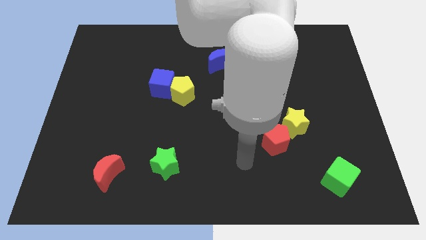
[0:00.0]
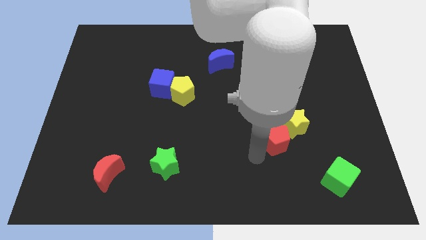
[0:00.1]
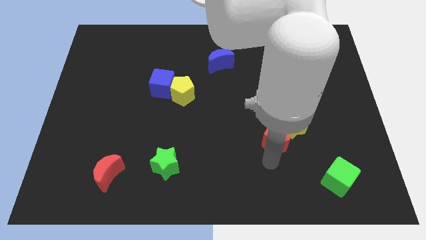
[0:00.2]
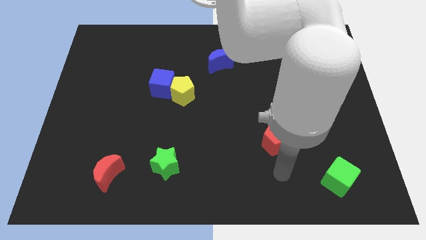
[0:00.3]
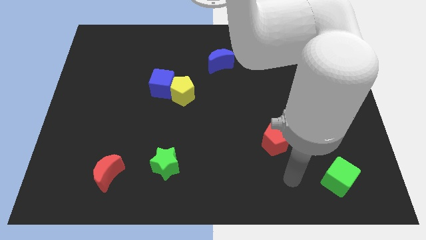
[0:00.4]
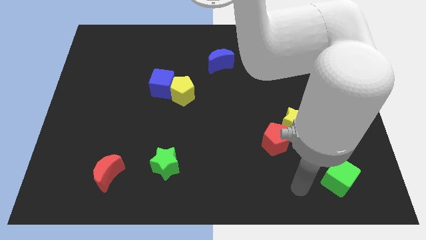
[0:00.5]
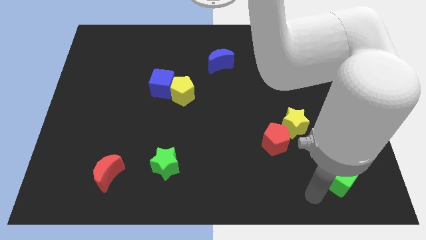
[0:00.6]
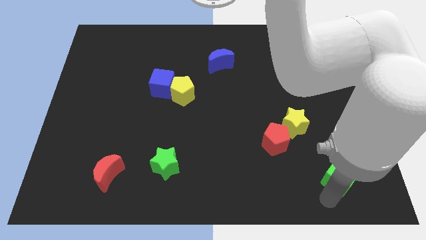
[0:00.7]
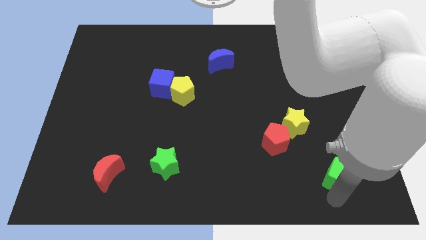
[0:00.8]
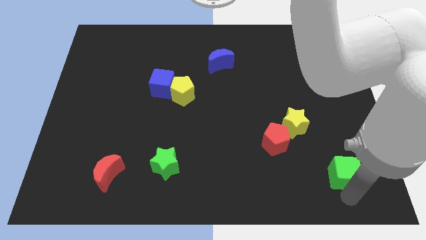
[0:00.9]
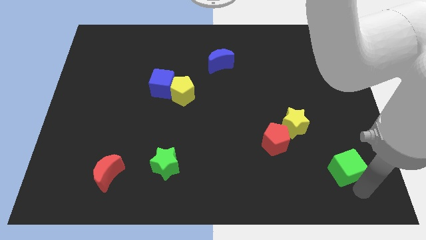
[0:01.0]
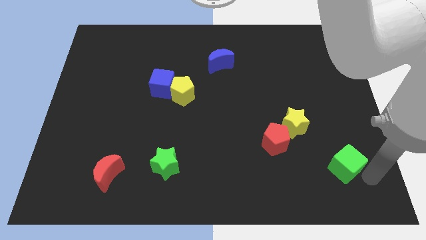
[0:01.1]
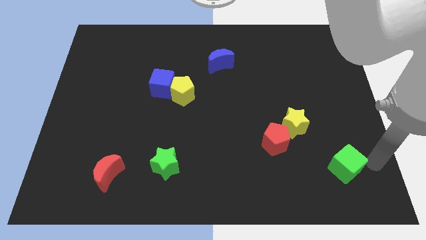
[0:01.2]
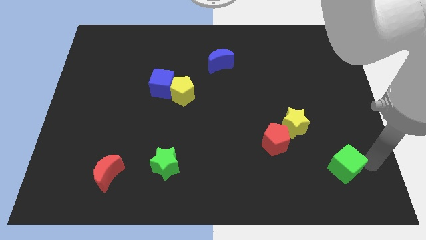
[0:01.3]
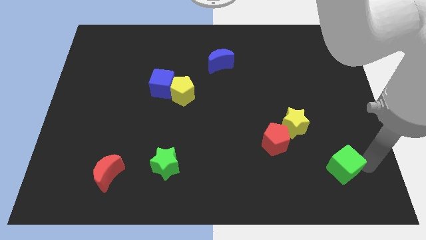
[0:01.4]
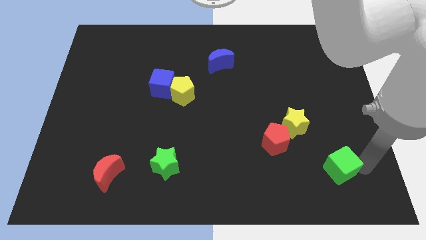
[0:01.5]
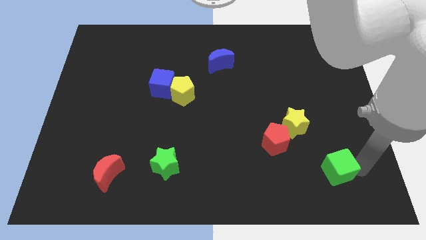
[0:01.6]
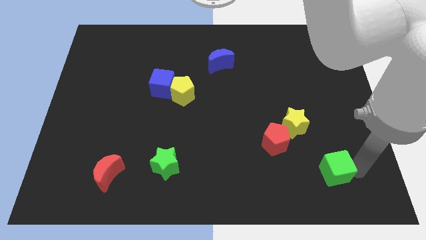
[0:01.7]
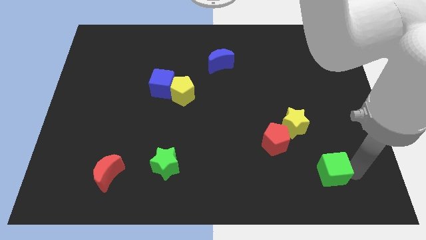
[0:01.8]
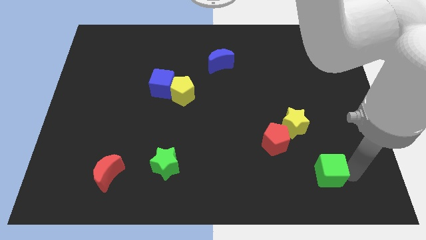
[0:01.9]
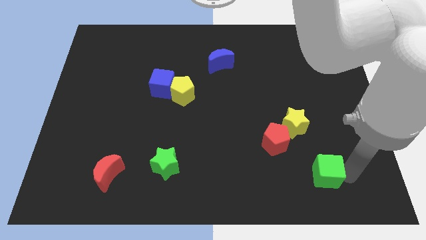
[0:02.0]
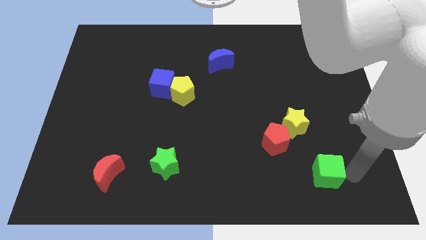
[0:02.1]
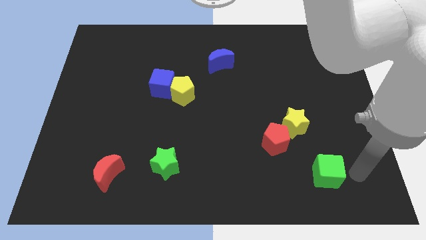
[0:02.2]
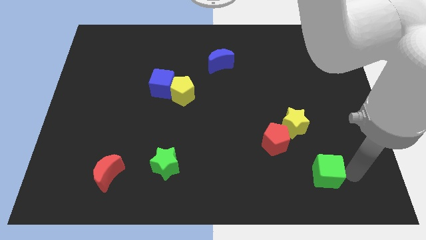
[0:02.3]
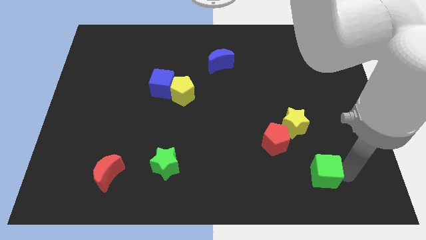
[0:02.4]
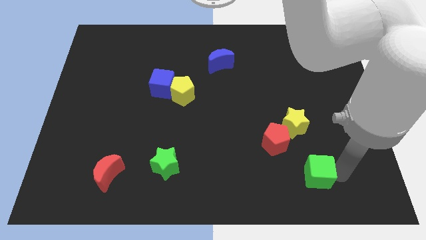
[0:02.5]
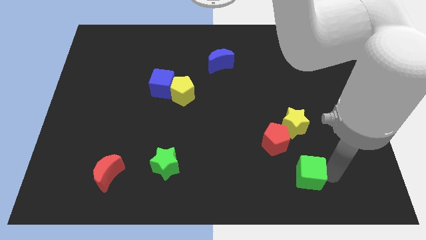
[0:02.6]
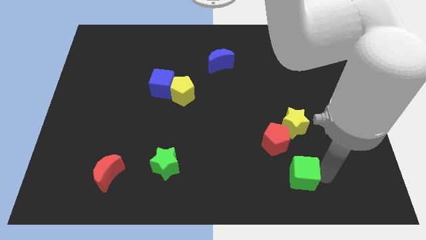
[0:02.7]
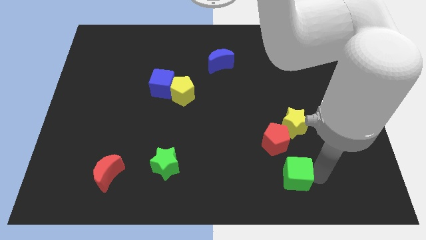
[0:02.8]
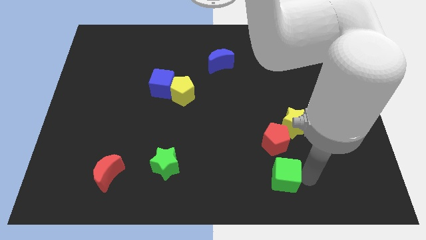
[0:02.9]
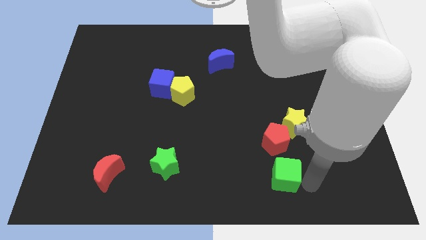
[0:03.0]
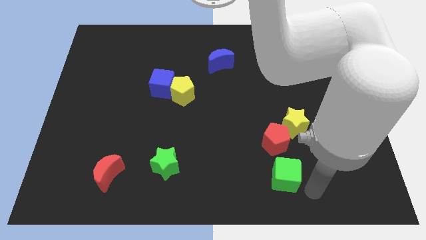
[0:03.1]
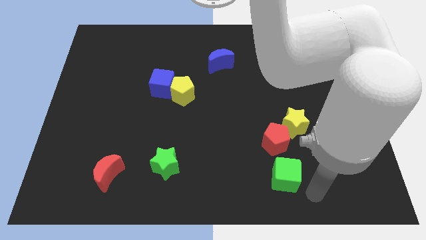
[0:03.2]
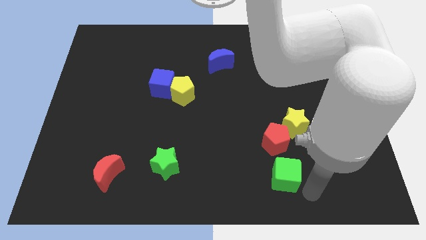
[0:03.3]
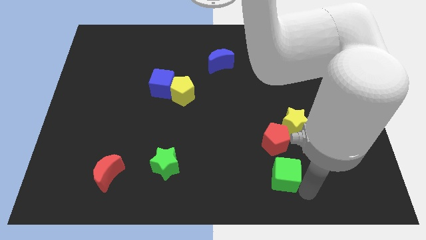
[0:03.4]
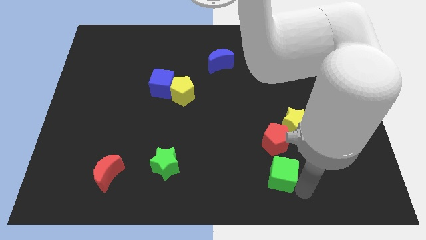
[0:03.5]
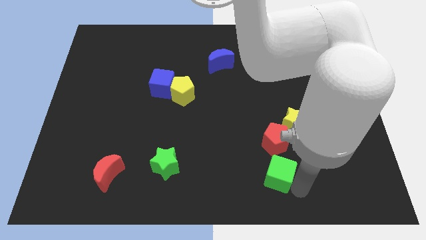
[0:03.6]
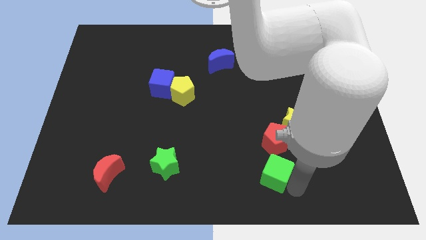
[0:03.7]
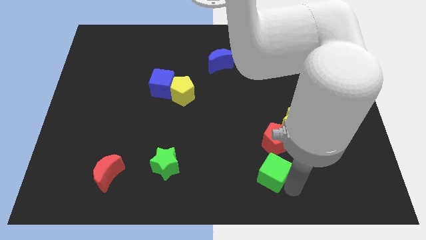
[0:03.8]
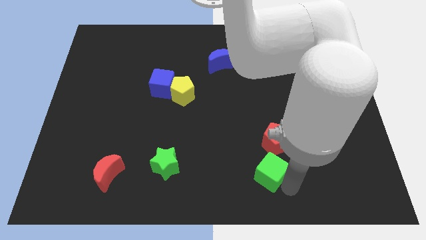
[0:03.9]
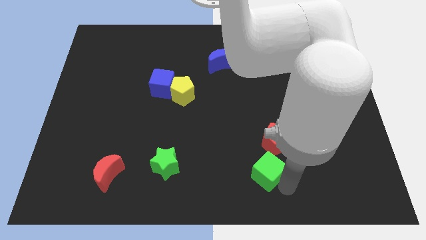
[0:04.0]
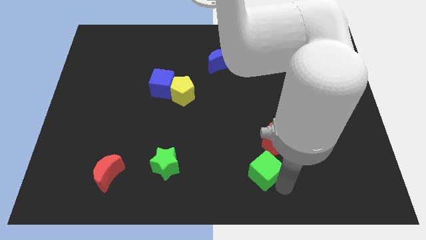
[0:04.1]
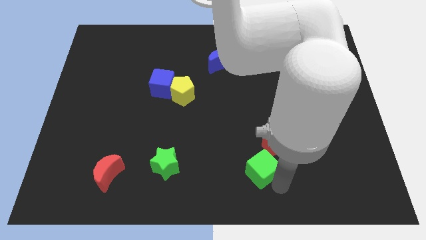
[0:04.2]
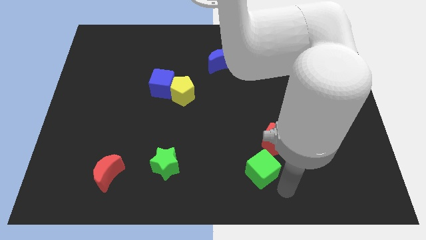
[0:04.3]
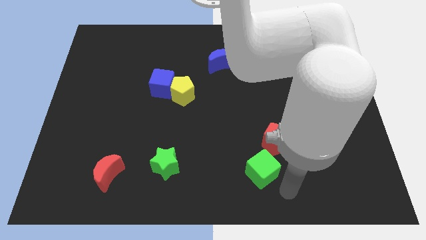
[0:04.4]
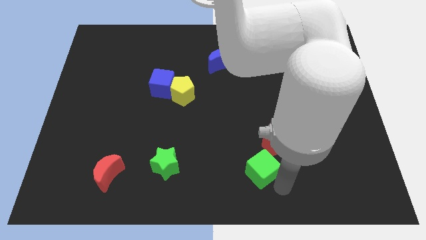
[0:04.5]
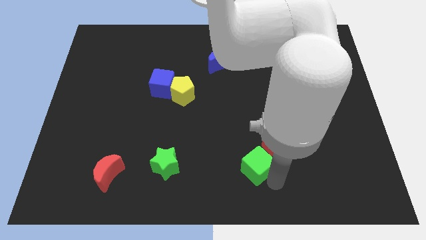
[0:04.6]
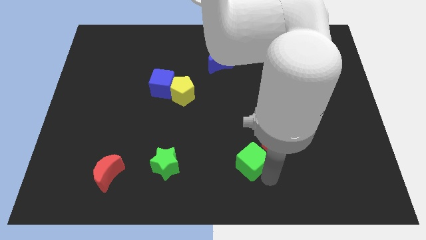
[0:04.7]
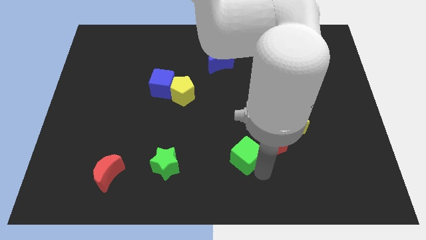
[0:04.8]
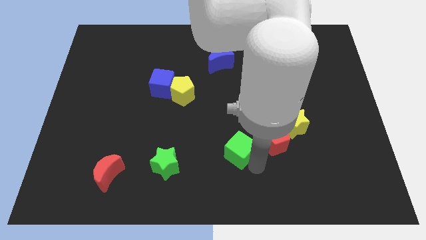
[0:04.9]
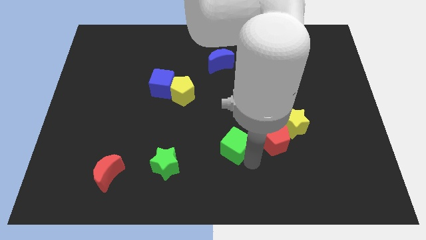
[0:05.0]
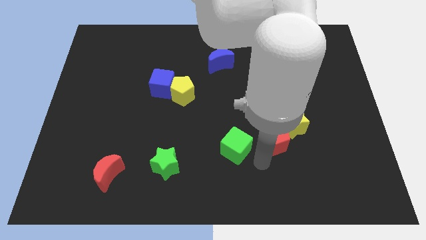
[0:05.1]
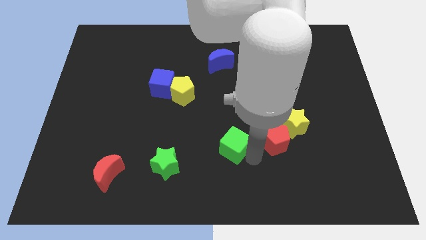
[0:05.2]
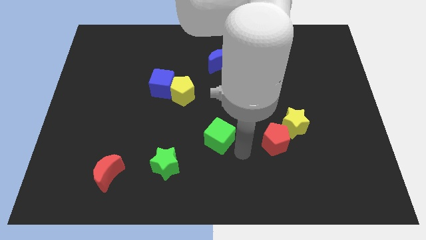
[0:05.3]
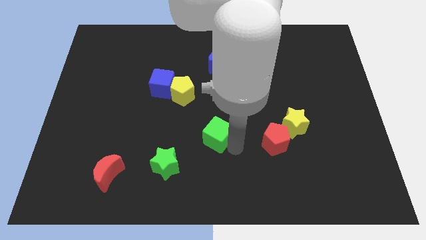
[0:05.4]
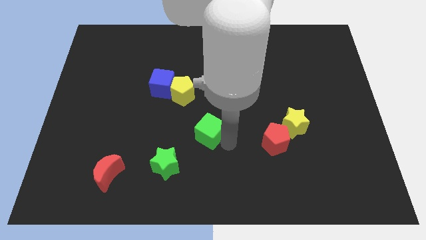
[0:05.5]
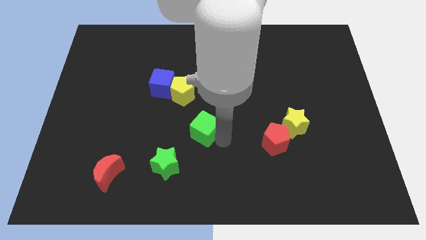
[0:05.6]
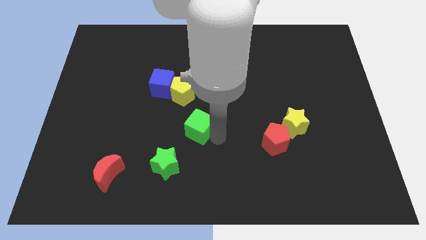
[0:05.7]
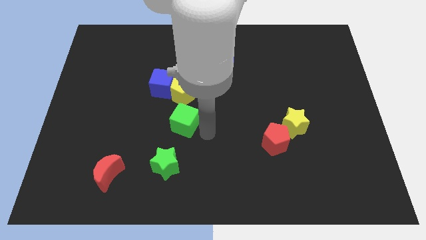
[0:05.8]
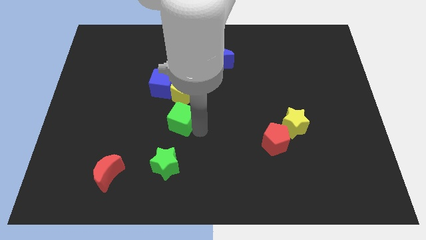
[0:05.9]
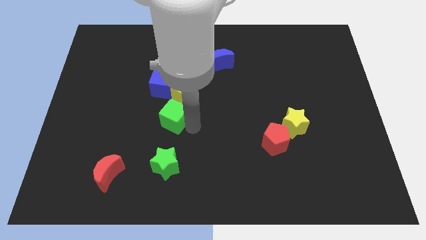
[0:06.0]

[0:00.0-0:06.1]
put the green cube to the bottom left side of the yellow pentagon
